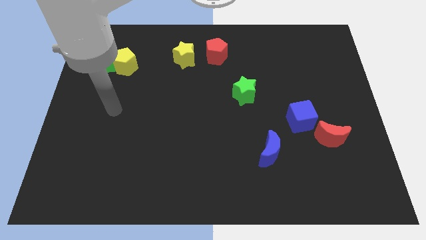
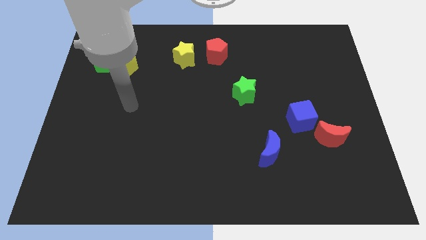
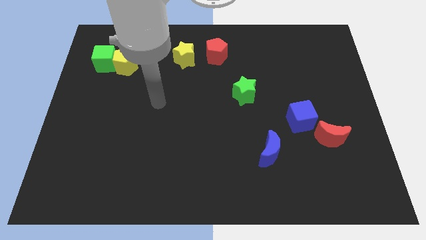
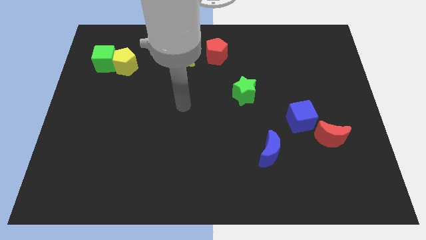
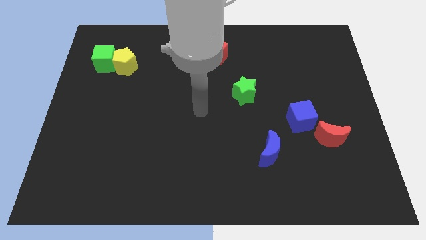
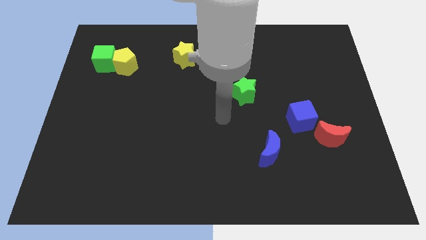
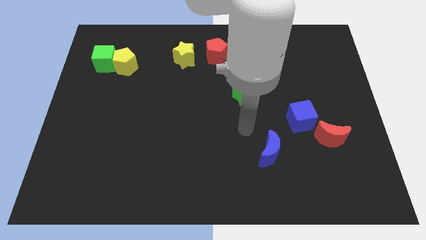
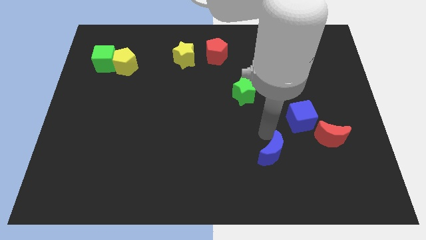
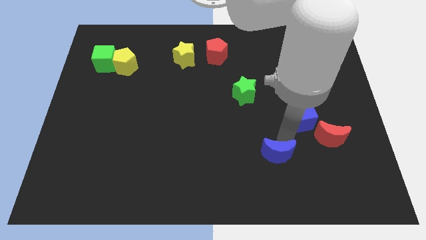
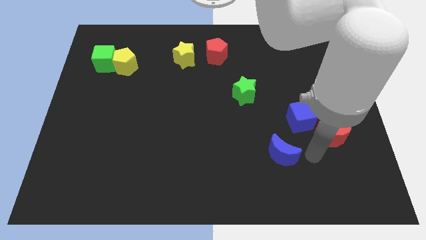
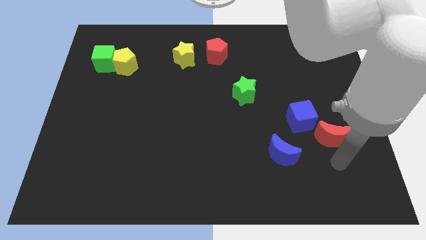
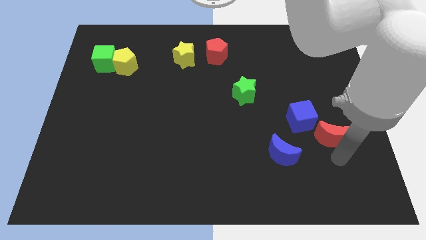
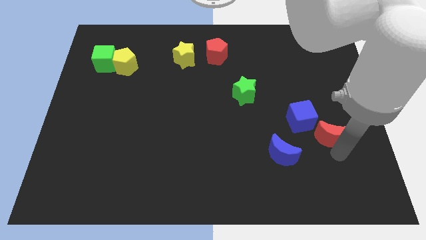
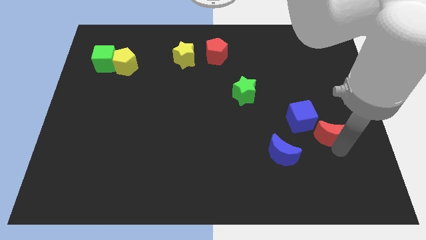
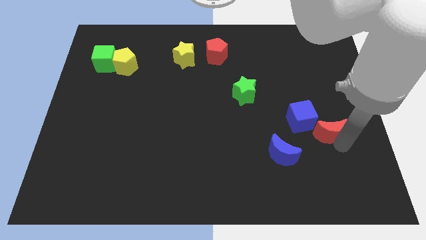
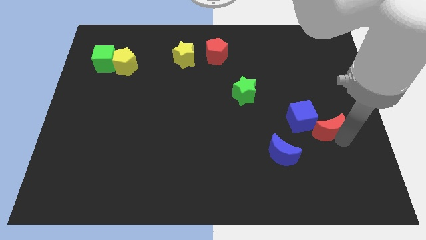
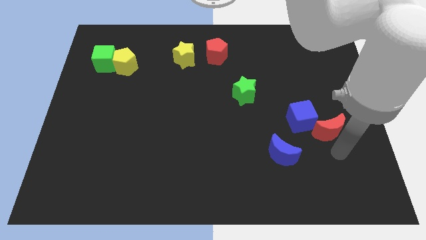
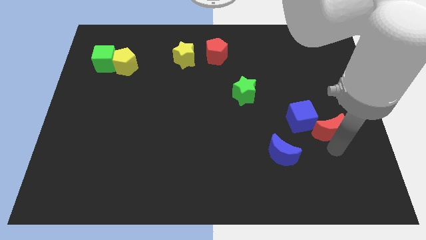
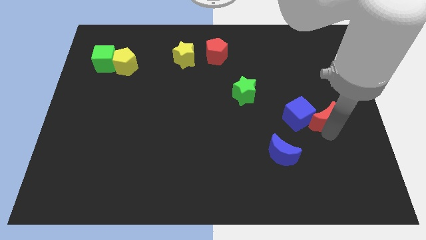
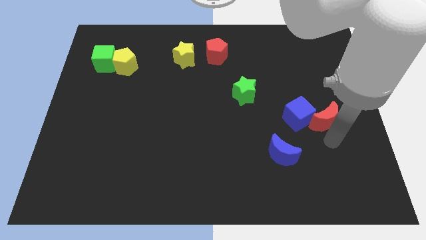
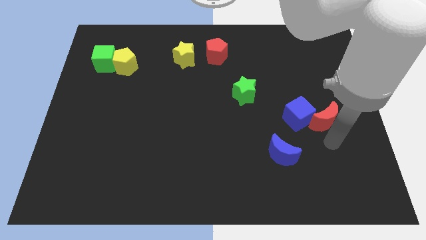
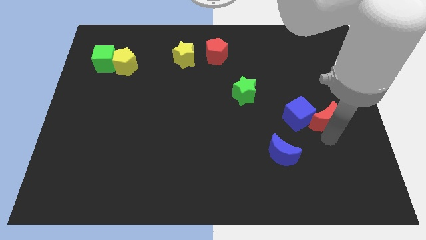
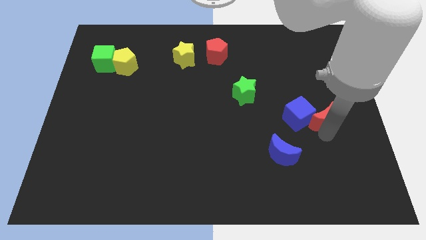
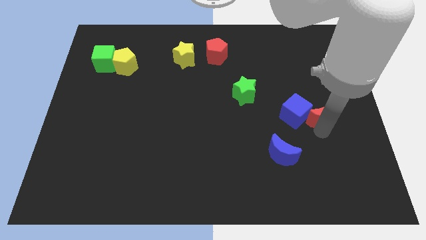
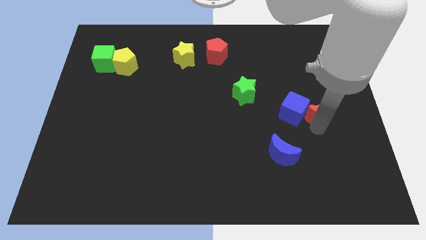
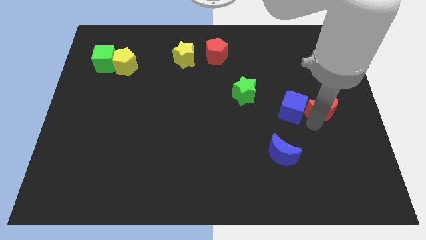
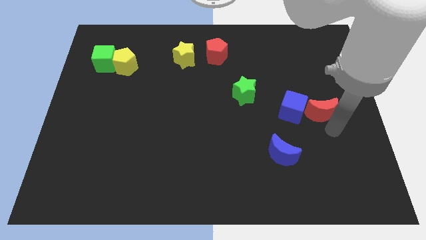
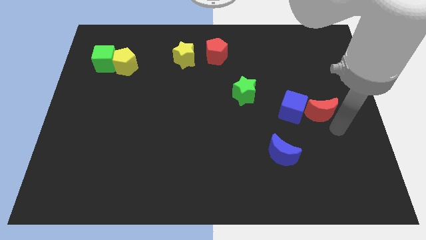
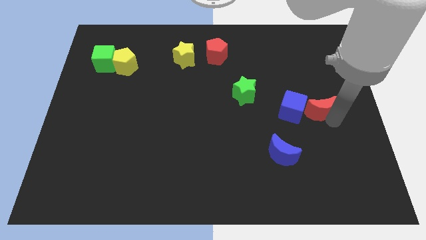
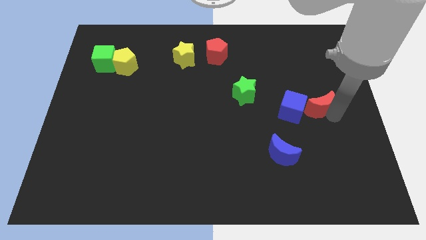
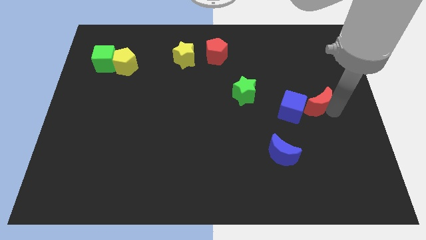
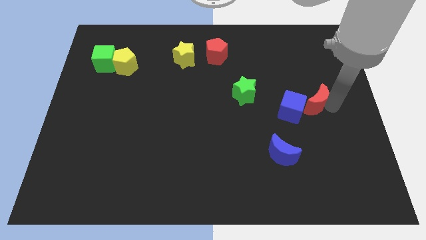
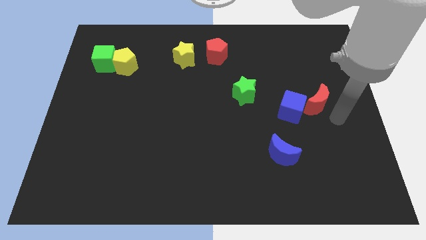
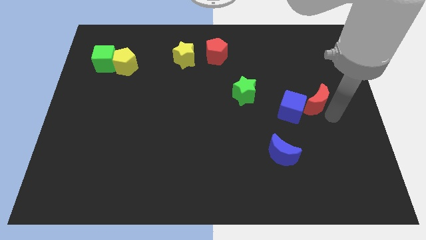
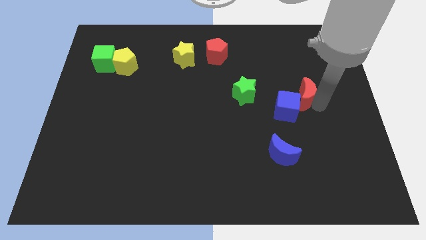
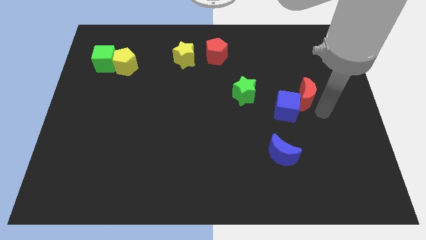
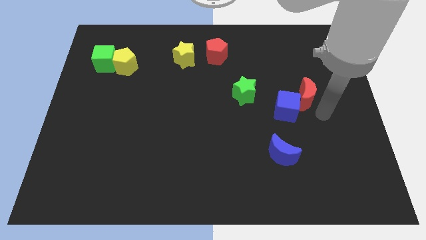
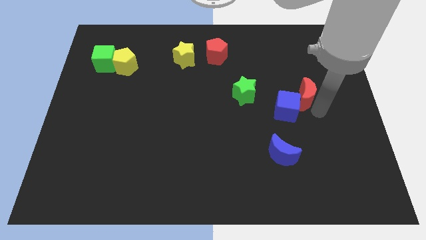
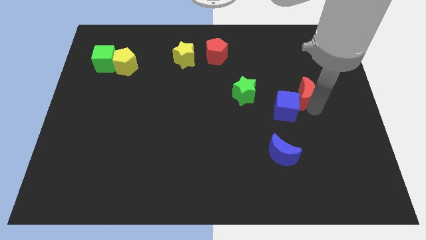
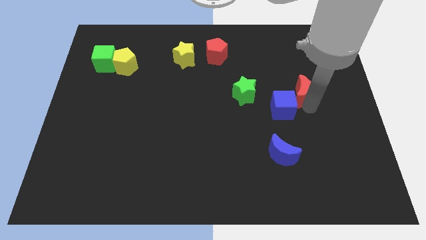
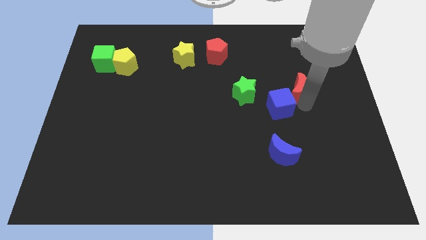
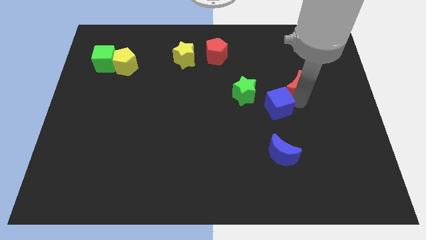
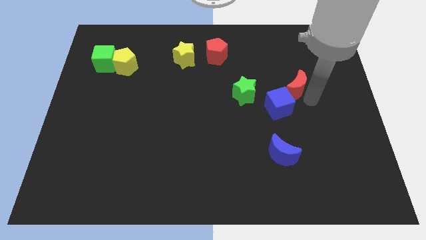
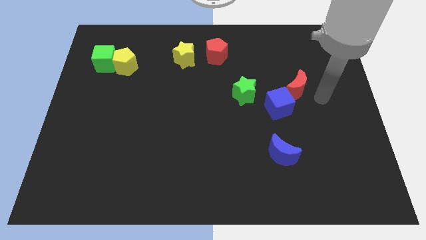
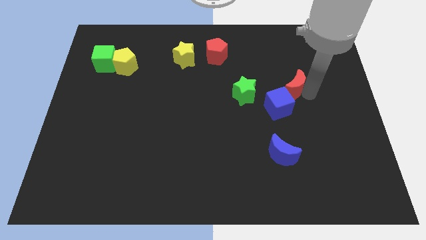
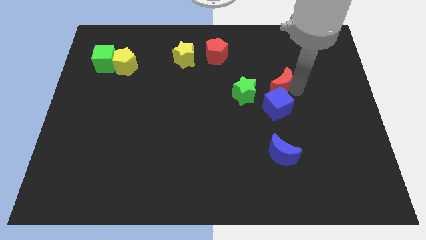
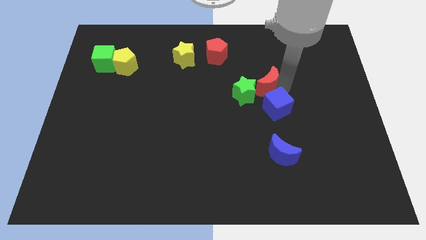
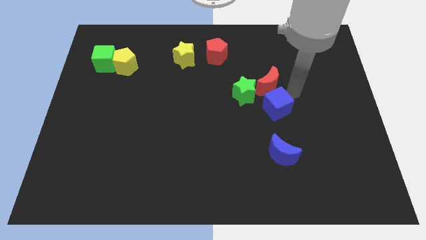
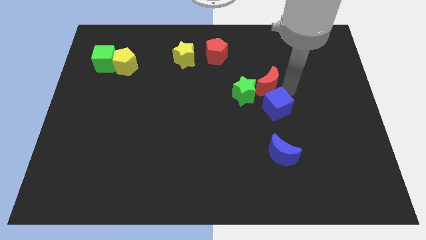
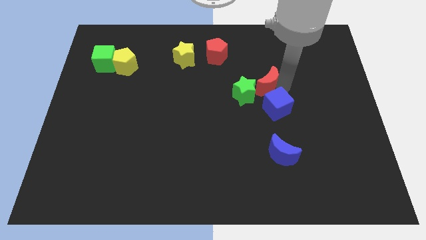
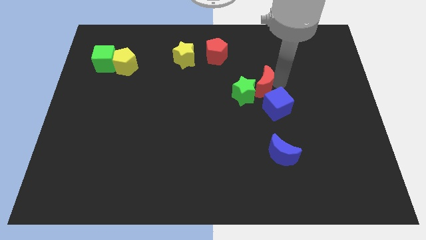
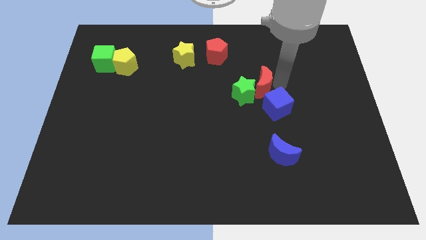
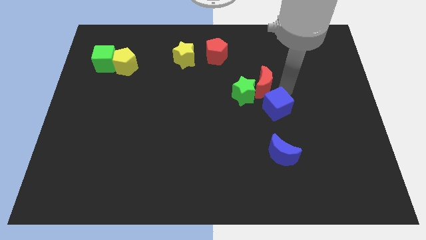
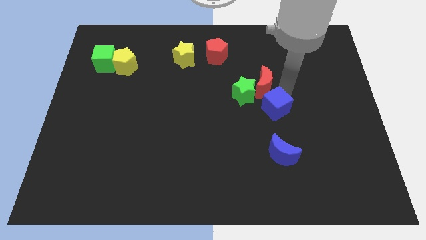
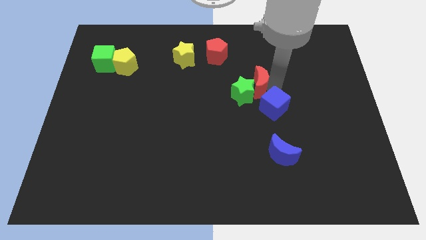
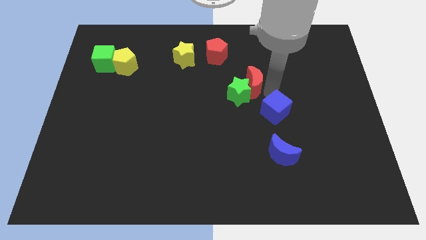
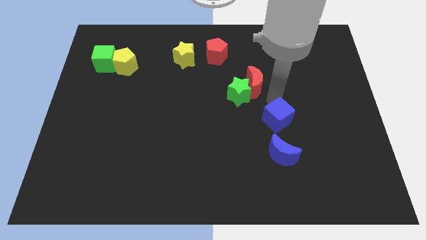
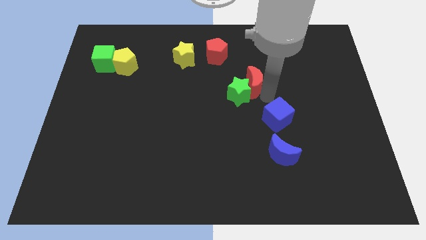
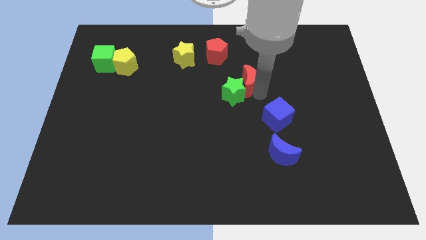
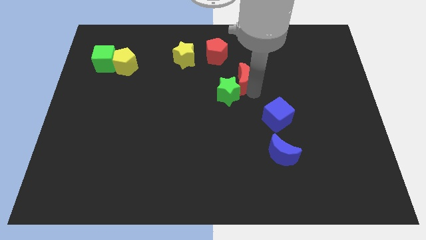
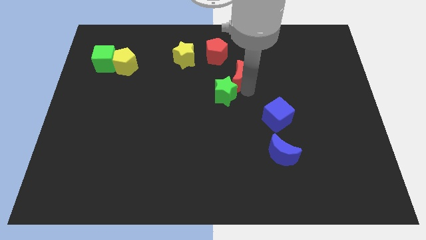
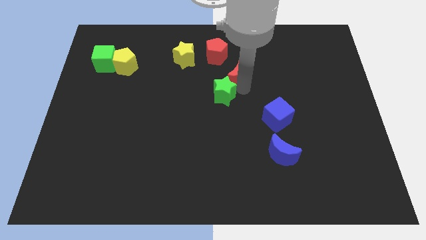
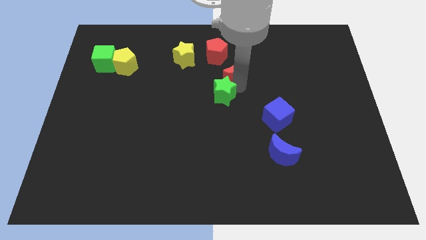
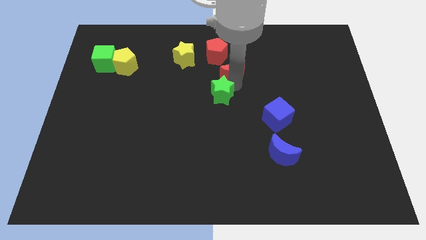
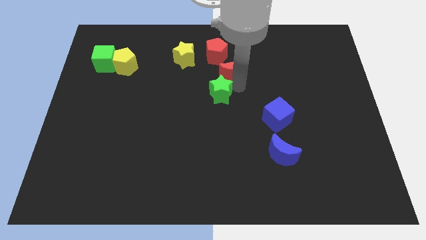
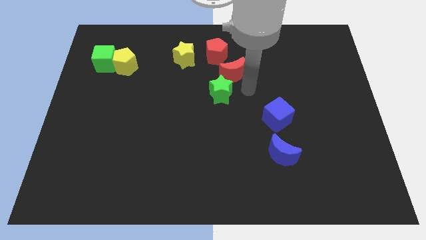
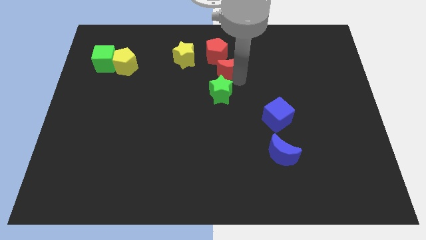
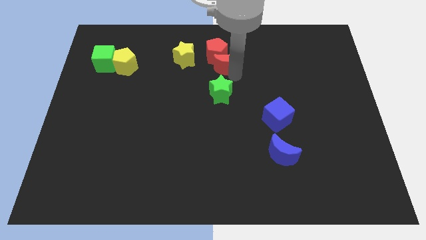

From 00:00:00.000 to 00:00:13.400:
move the red moon towards the red pentagon
